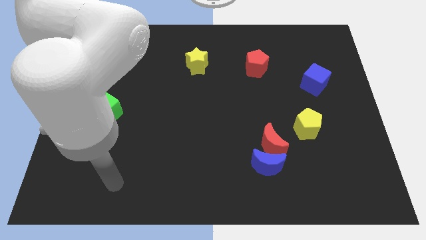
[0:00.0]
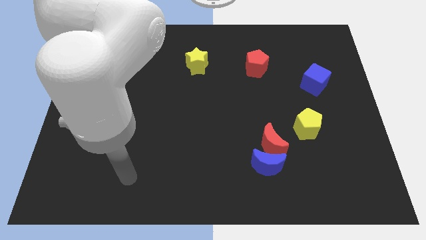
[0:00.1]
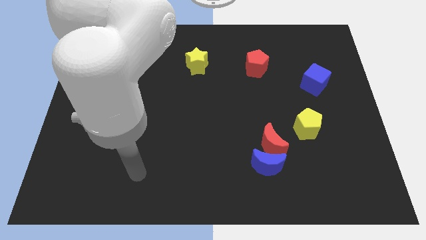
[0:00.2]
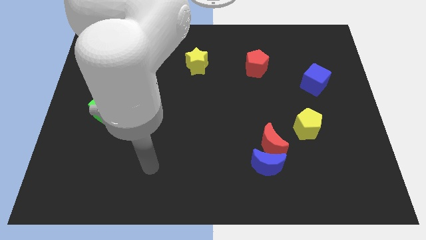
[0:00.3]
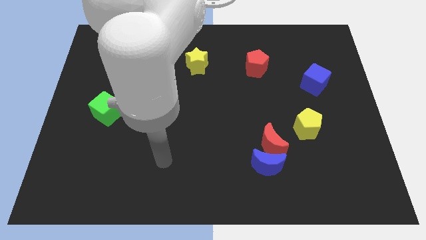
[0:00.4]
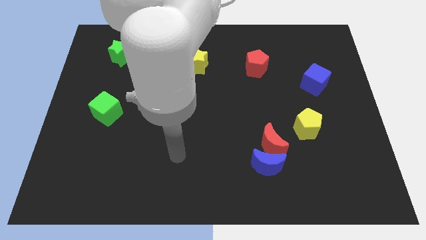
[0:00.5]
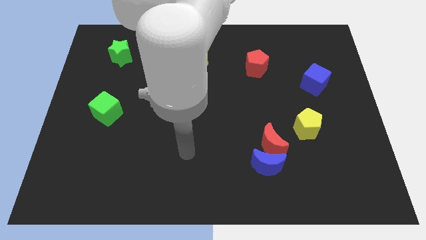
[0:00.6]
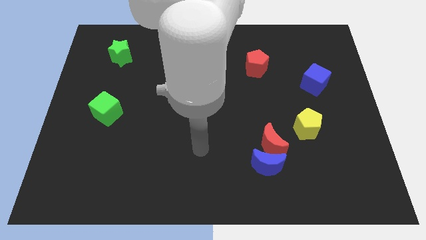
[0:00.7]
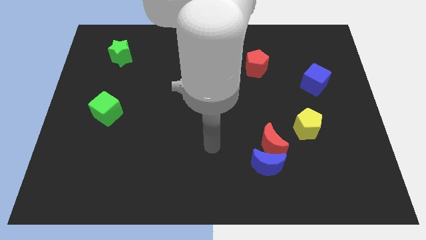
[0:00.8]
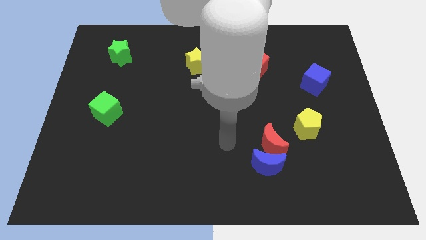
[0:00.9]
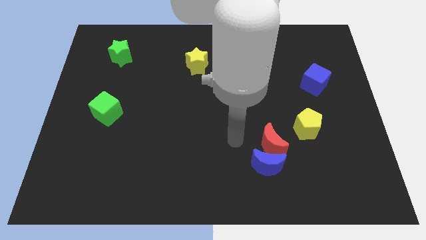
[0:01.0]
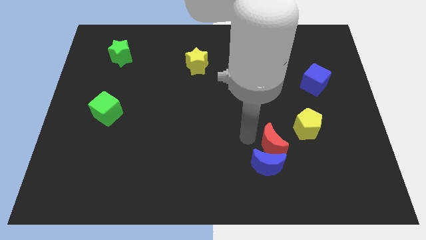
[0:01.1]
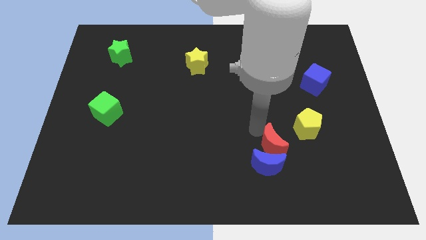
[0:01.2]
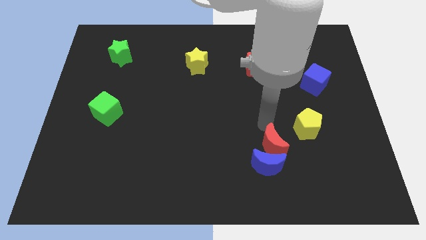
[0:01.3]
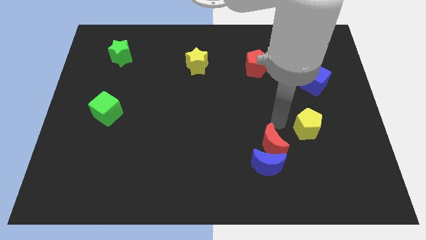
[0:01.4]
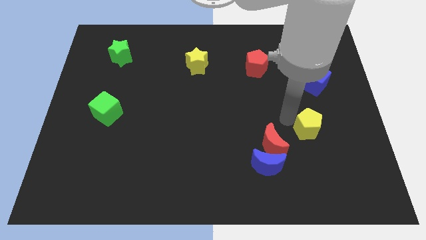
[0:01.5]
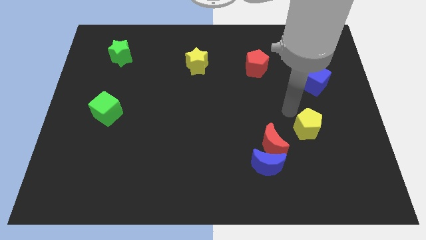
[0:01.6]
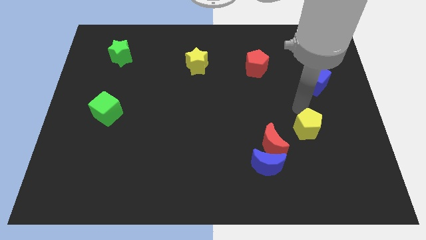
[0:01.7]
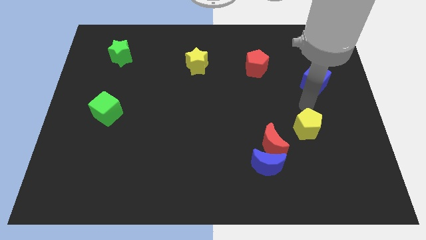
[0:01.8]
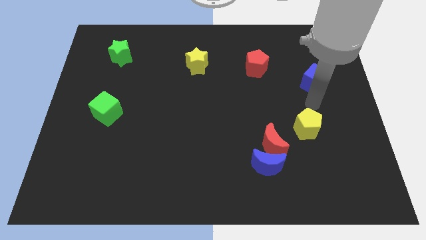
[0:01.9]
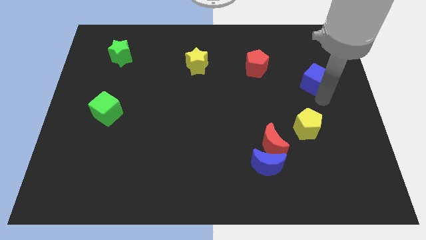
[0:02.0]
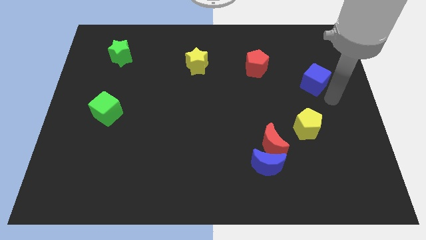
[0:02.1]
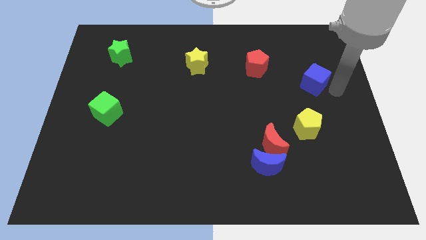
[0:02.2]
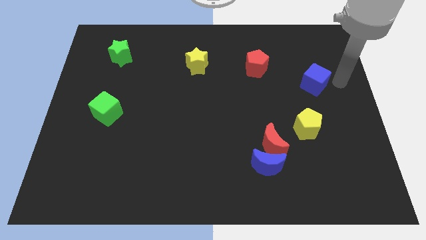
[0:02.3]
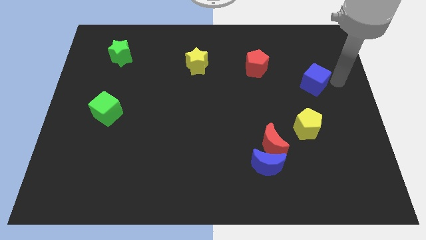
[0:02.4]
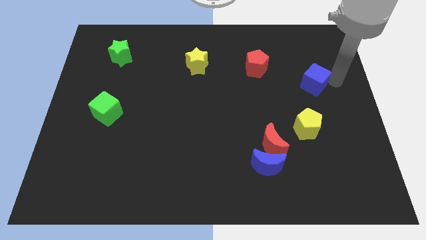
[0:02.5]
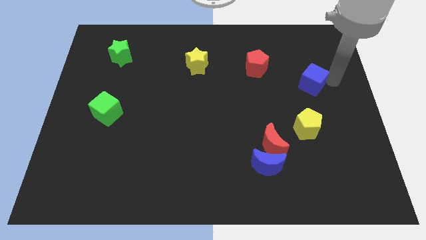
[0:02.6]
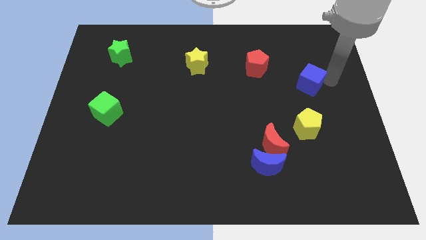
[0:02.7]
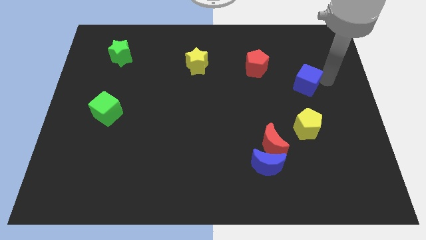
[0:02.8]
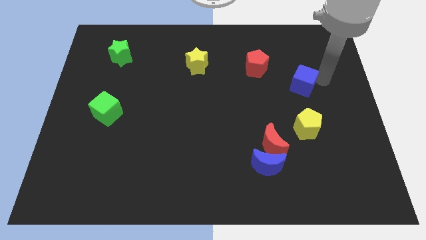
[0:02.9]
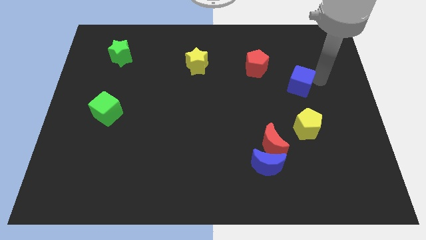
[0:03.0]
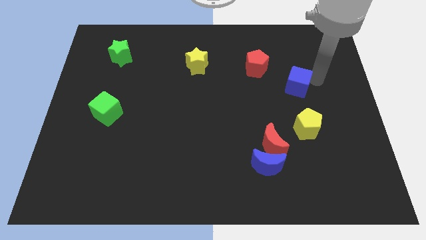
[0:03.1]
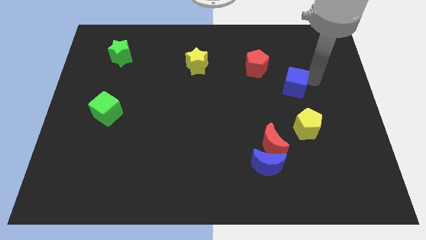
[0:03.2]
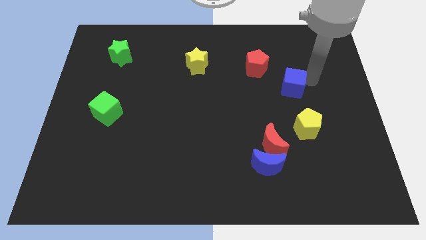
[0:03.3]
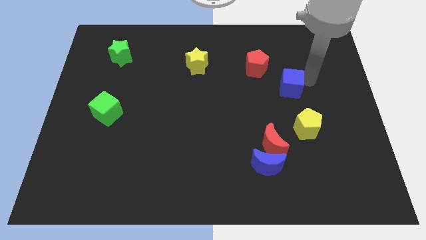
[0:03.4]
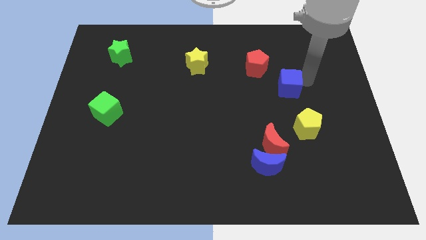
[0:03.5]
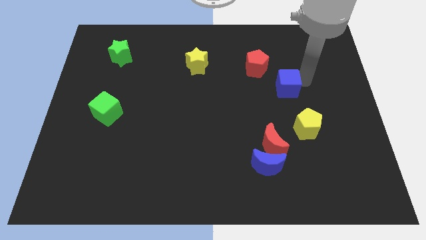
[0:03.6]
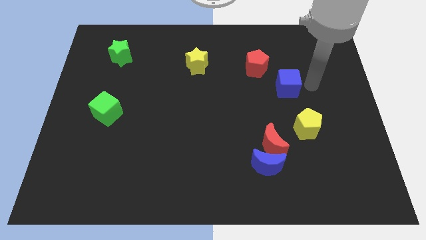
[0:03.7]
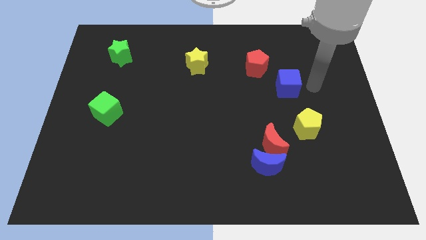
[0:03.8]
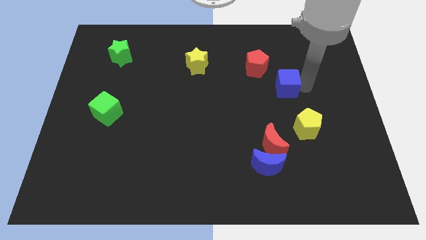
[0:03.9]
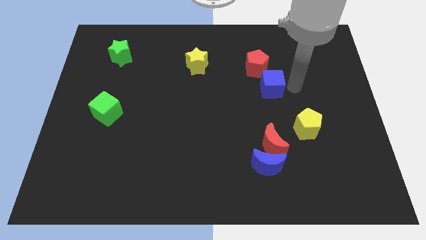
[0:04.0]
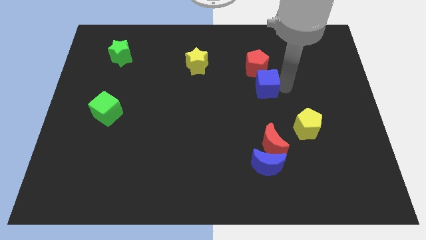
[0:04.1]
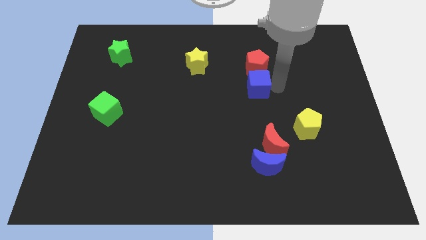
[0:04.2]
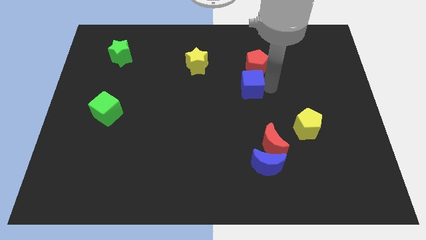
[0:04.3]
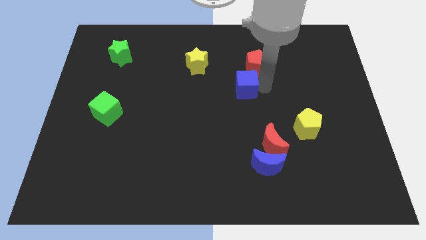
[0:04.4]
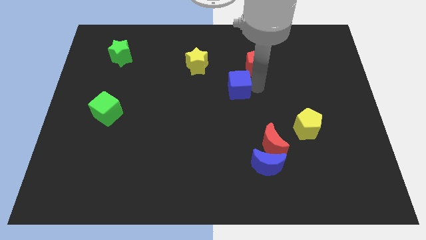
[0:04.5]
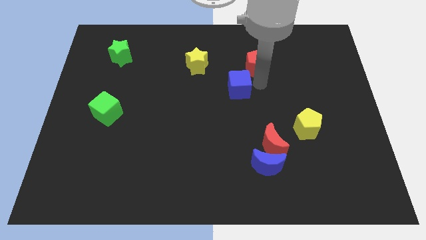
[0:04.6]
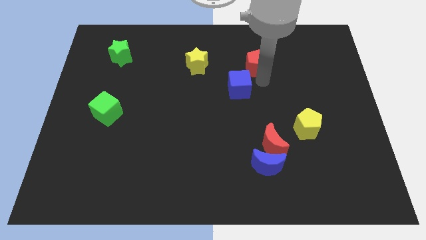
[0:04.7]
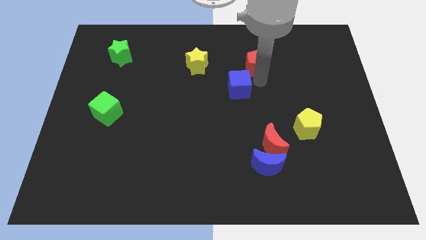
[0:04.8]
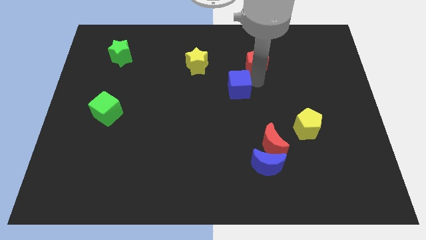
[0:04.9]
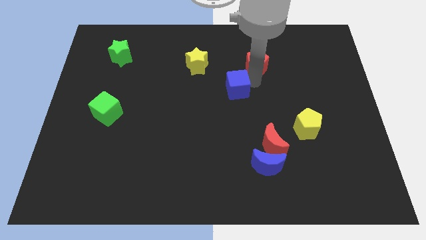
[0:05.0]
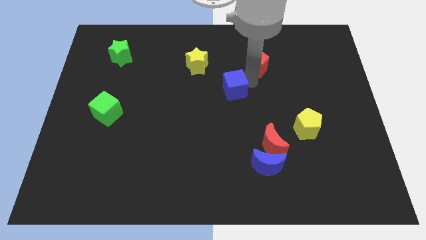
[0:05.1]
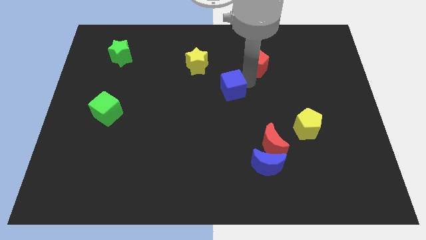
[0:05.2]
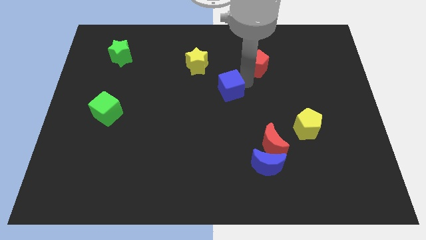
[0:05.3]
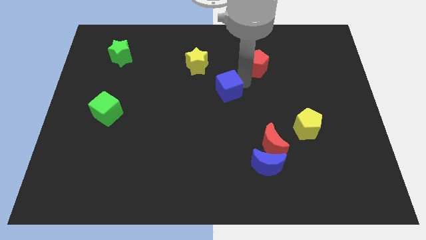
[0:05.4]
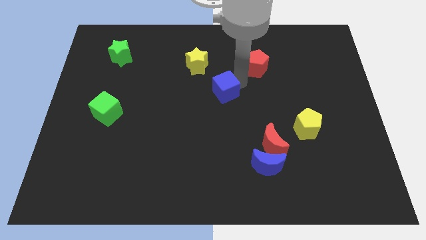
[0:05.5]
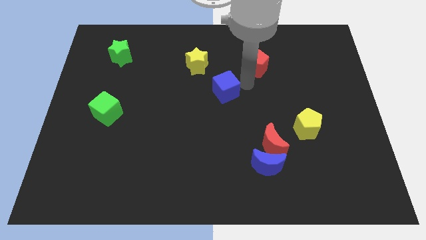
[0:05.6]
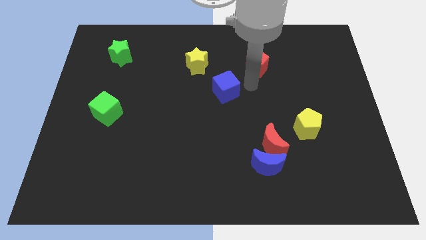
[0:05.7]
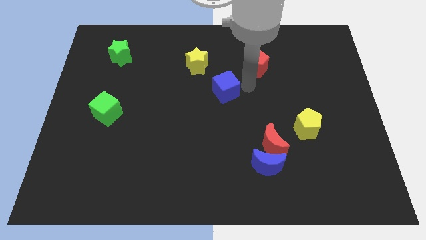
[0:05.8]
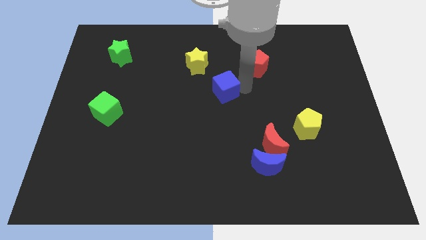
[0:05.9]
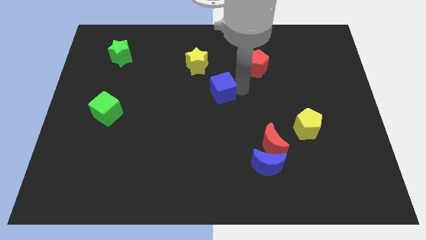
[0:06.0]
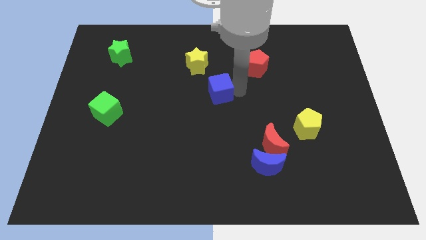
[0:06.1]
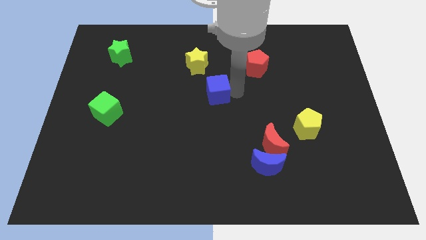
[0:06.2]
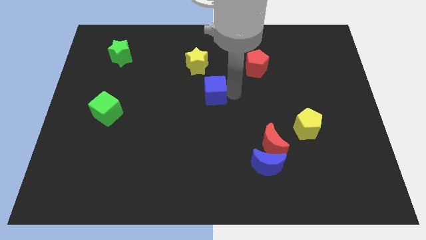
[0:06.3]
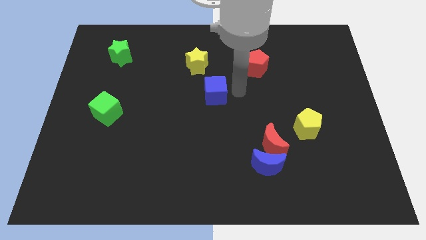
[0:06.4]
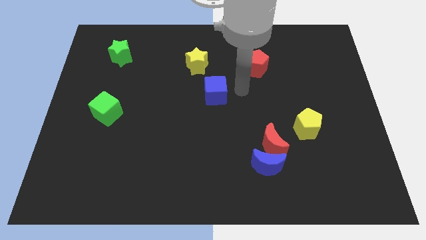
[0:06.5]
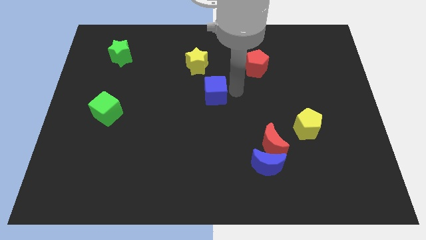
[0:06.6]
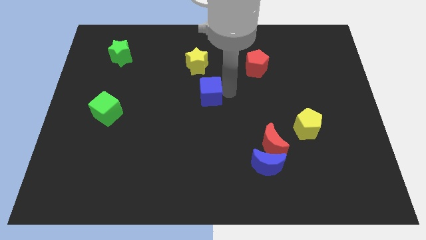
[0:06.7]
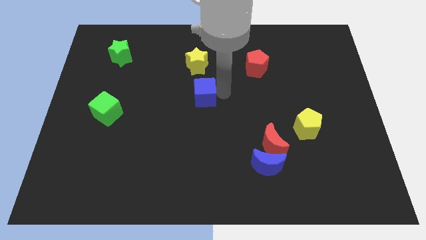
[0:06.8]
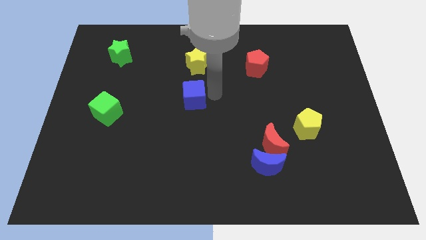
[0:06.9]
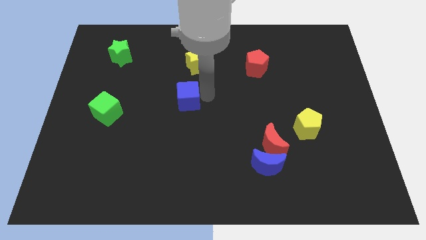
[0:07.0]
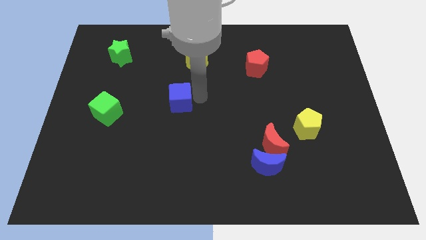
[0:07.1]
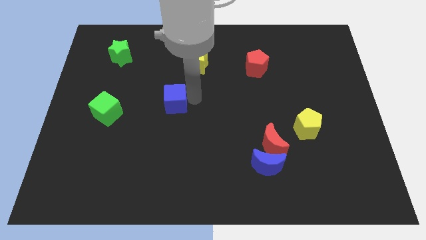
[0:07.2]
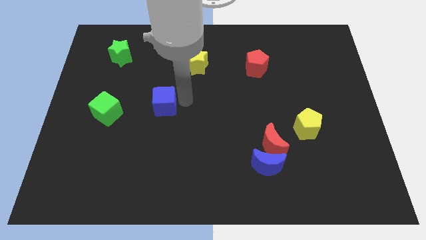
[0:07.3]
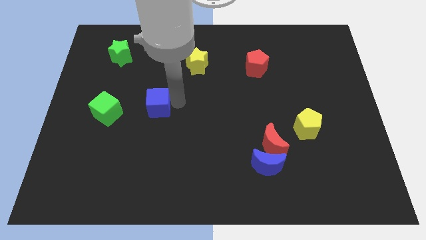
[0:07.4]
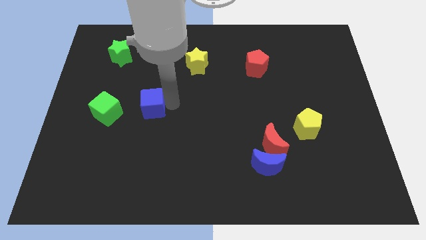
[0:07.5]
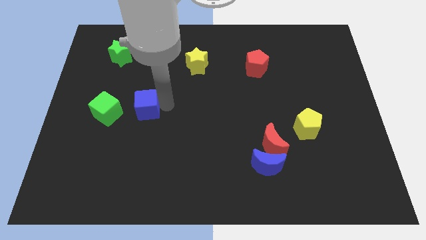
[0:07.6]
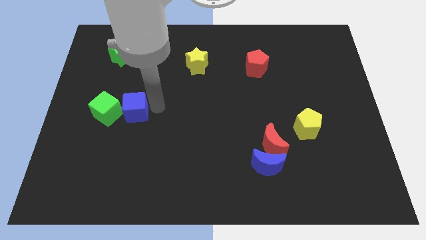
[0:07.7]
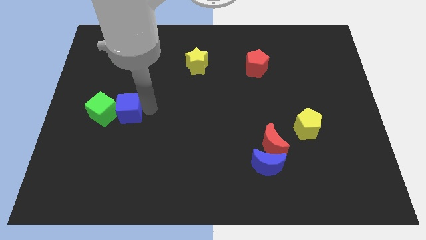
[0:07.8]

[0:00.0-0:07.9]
move the blue cube close to the green cube

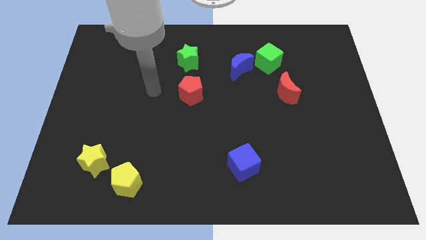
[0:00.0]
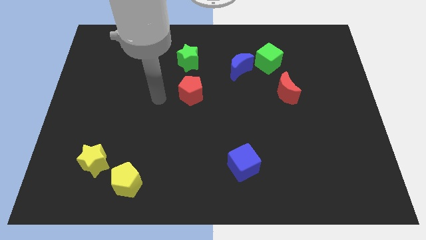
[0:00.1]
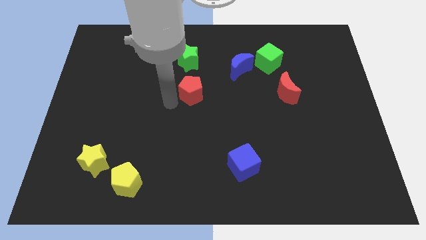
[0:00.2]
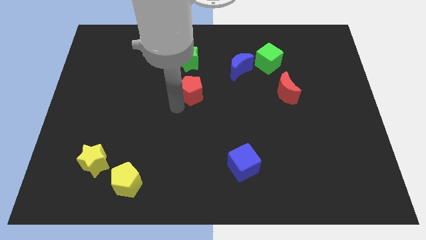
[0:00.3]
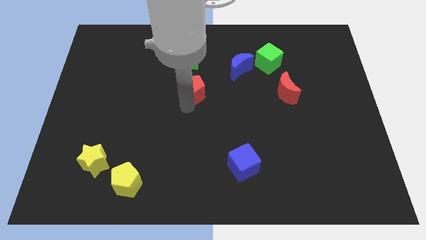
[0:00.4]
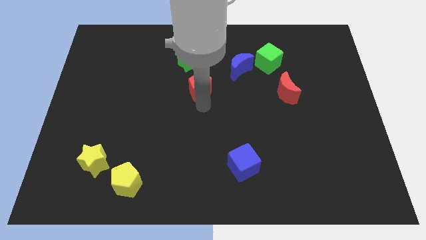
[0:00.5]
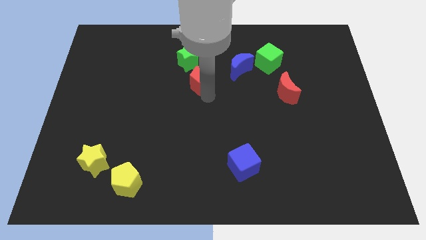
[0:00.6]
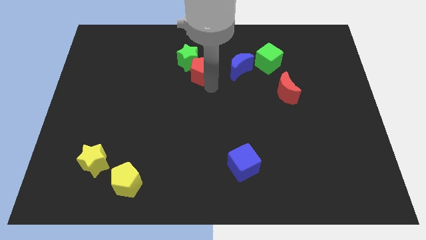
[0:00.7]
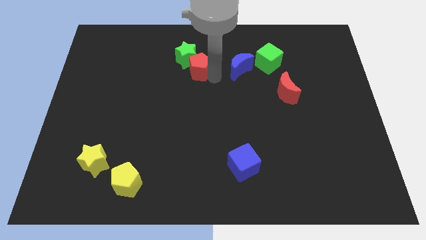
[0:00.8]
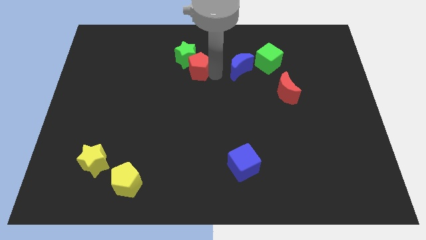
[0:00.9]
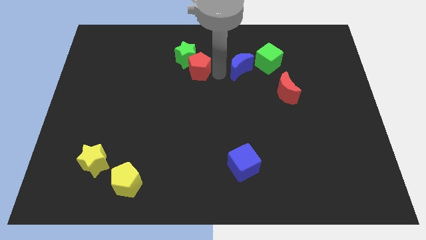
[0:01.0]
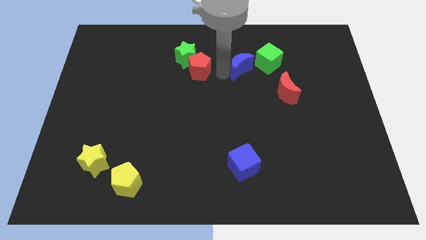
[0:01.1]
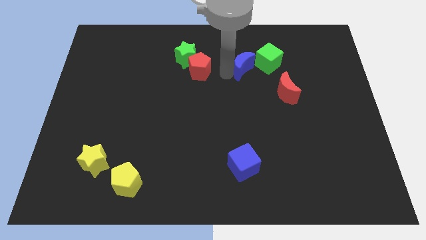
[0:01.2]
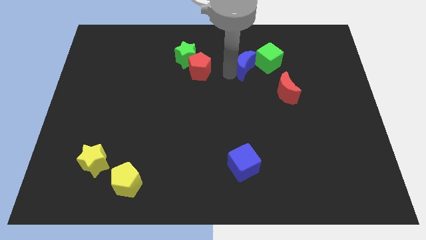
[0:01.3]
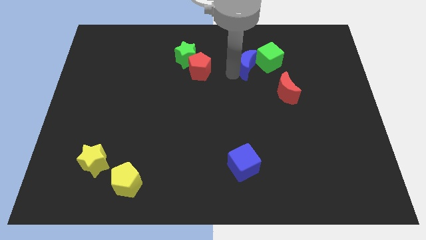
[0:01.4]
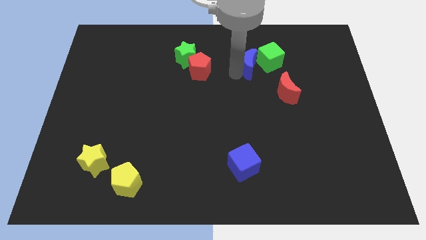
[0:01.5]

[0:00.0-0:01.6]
put the blue moon towards the green cube
